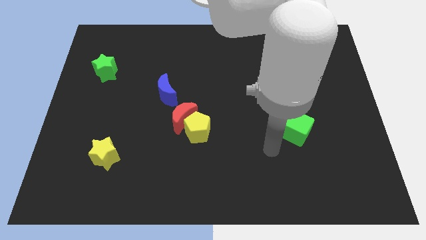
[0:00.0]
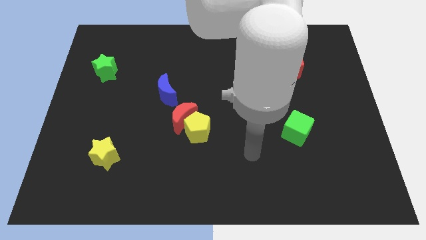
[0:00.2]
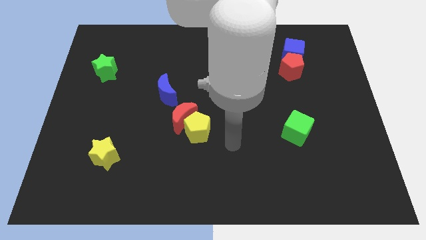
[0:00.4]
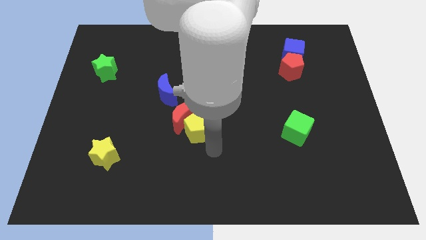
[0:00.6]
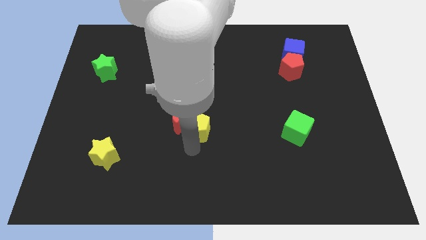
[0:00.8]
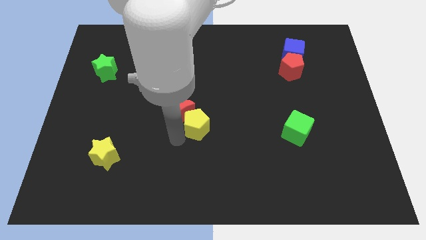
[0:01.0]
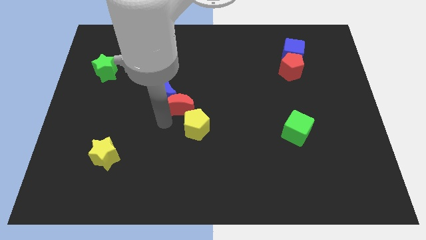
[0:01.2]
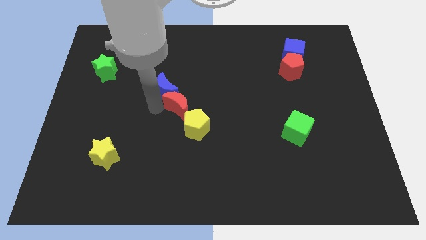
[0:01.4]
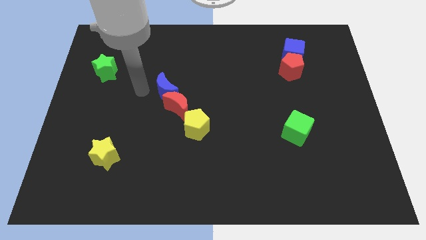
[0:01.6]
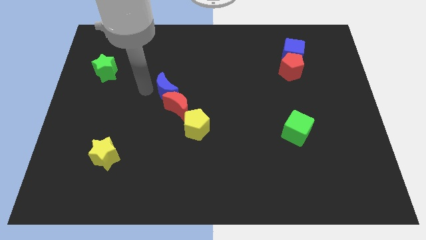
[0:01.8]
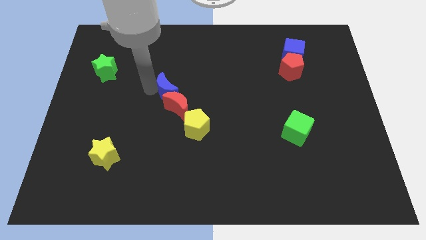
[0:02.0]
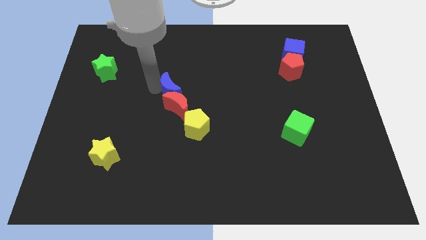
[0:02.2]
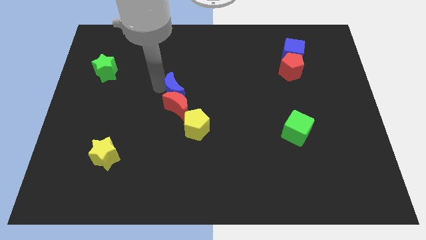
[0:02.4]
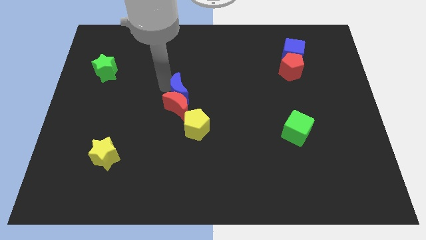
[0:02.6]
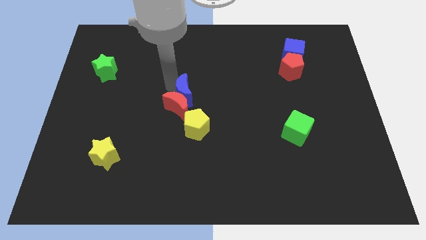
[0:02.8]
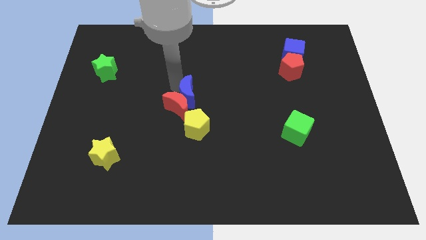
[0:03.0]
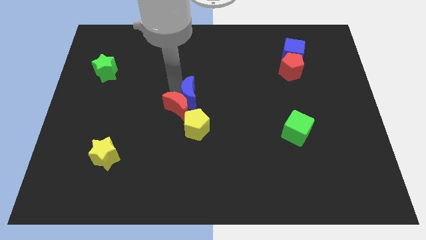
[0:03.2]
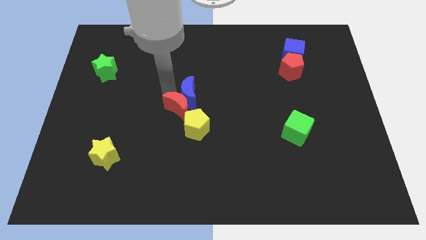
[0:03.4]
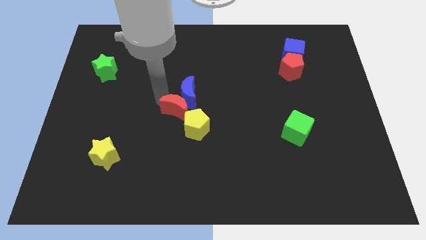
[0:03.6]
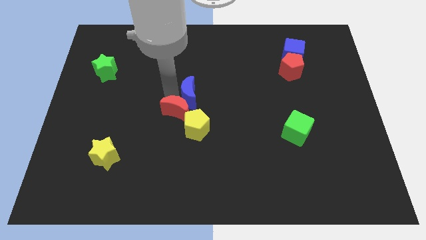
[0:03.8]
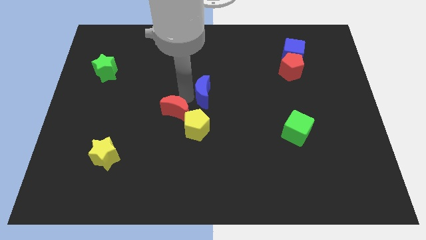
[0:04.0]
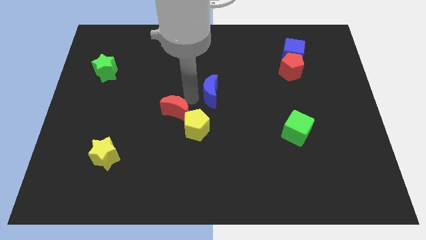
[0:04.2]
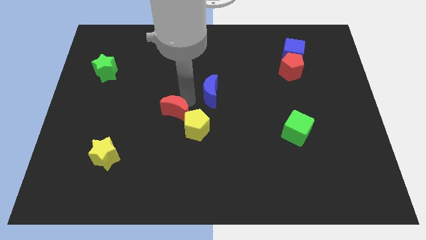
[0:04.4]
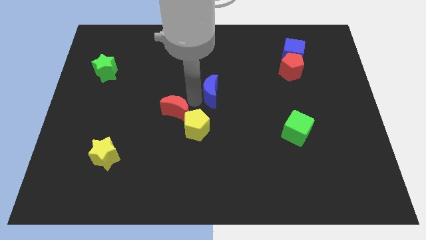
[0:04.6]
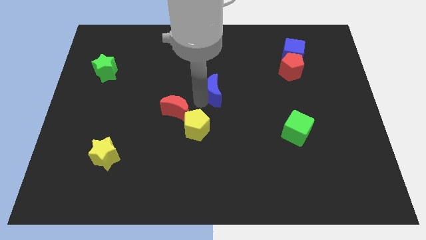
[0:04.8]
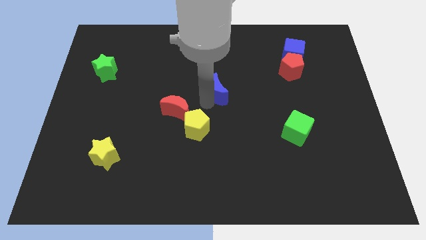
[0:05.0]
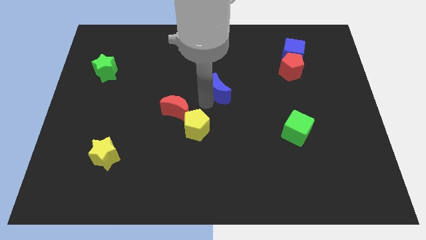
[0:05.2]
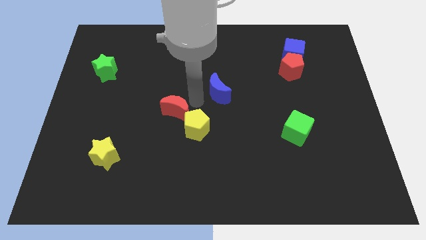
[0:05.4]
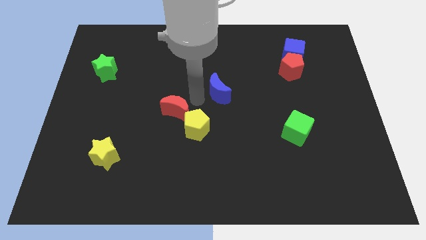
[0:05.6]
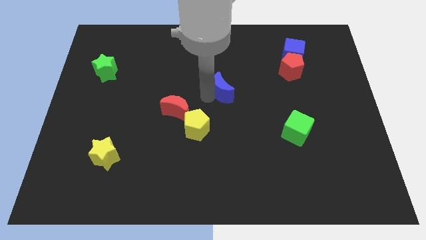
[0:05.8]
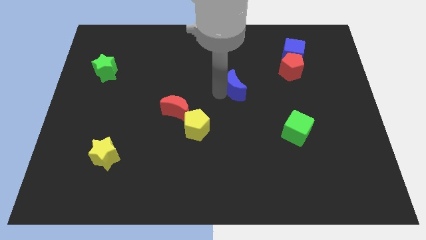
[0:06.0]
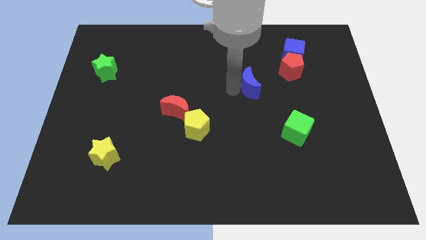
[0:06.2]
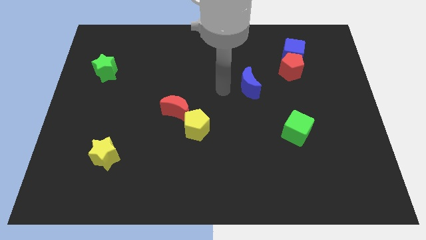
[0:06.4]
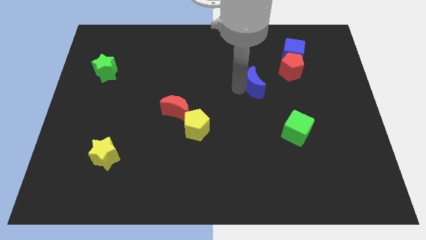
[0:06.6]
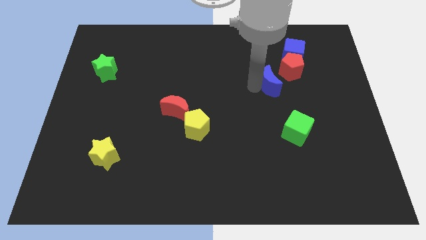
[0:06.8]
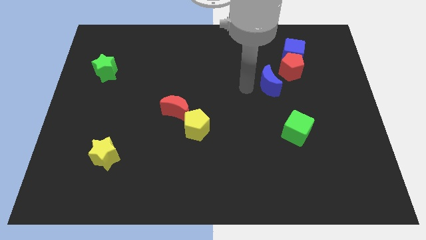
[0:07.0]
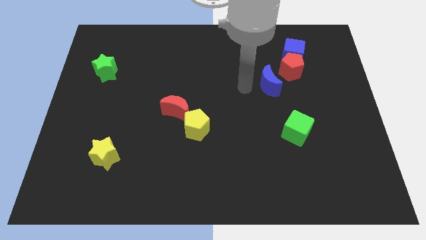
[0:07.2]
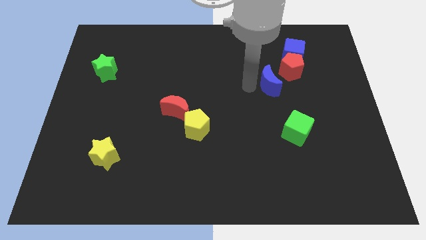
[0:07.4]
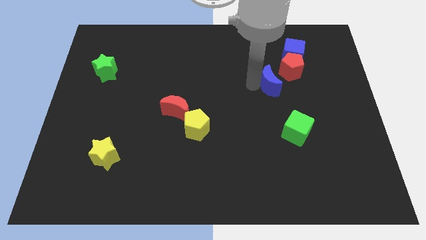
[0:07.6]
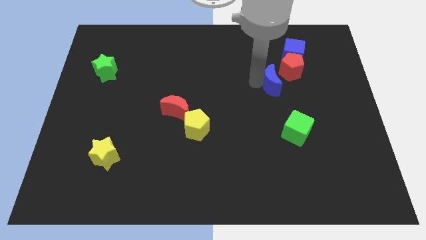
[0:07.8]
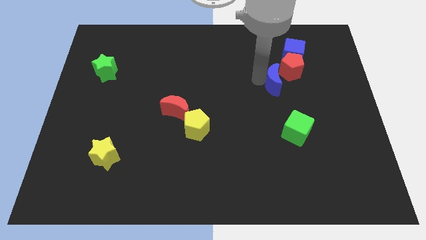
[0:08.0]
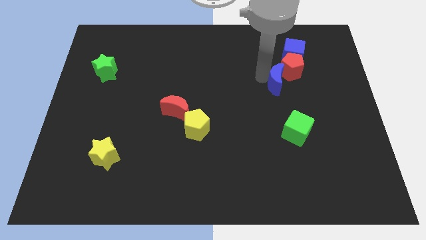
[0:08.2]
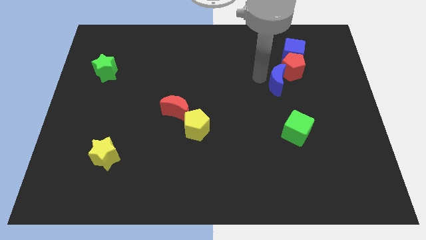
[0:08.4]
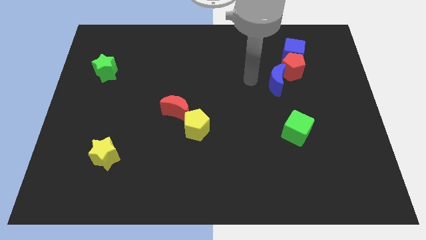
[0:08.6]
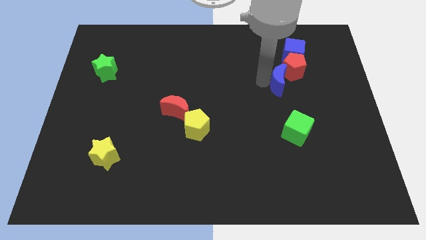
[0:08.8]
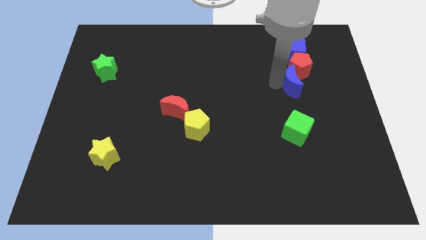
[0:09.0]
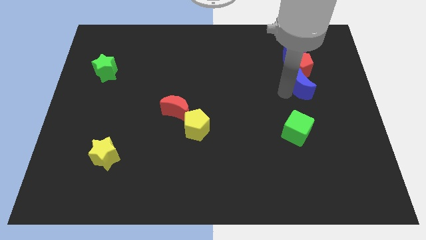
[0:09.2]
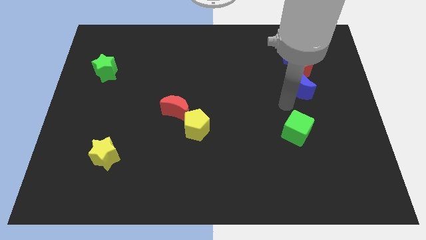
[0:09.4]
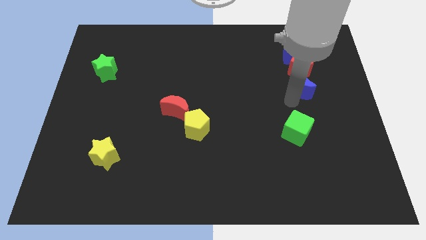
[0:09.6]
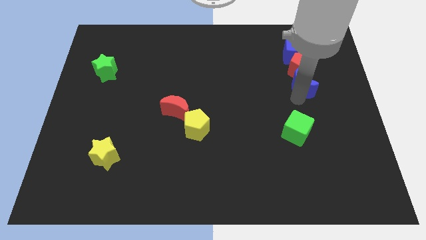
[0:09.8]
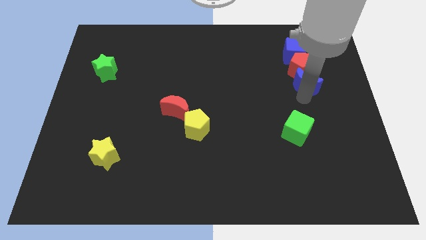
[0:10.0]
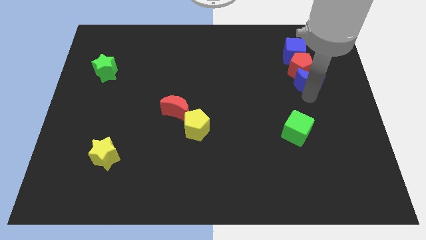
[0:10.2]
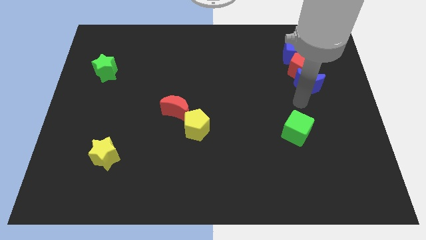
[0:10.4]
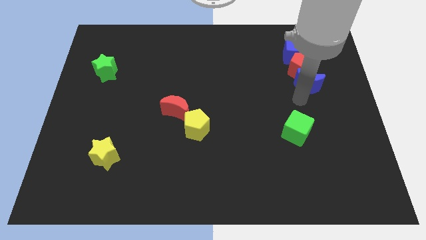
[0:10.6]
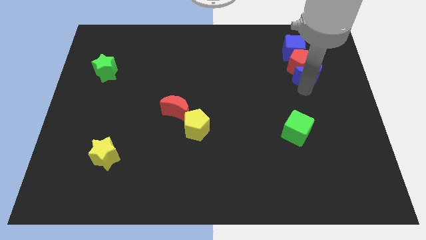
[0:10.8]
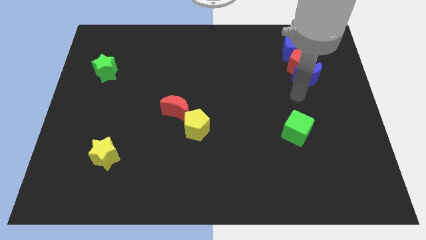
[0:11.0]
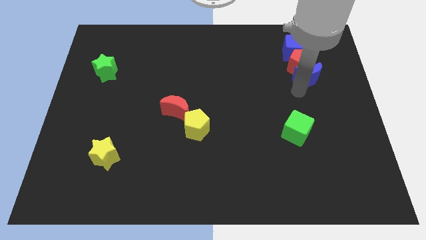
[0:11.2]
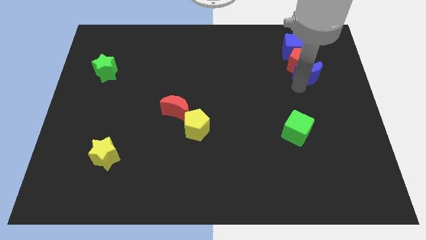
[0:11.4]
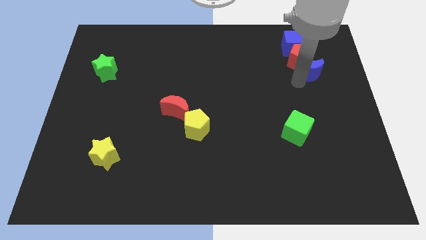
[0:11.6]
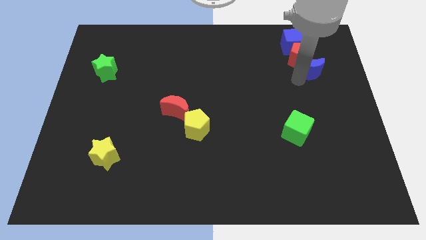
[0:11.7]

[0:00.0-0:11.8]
push the blue moon to the bottom right of the blue cube
